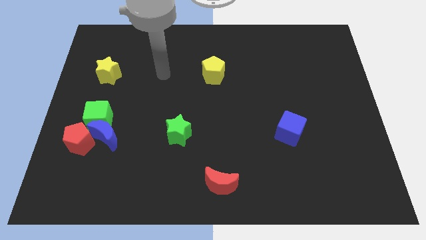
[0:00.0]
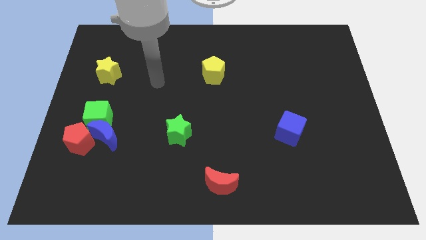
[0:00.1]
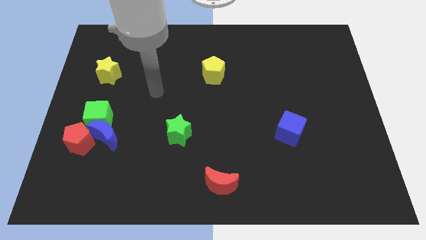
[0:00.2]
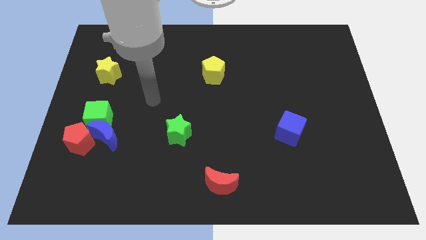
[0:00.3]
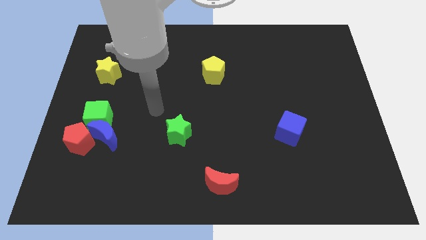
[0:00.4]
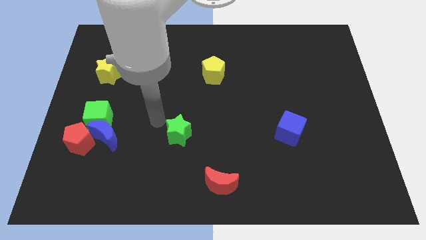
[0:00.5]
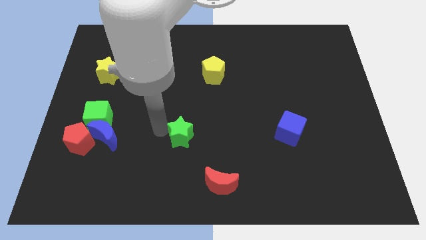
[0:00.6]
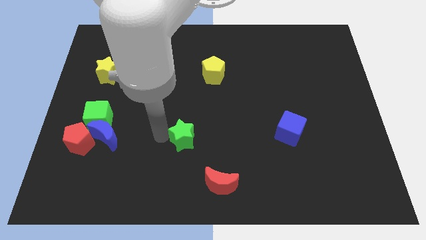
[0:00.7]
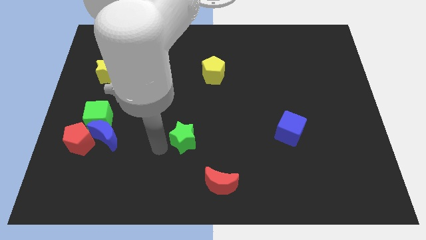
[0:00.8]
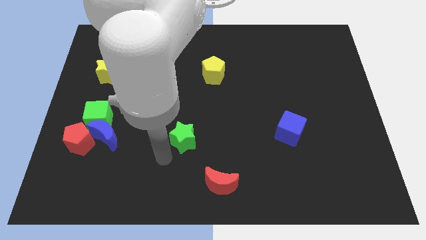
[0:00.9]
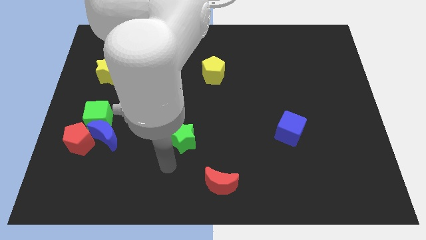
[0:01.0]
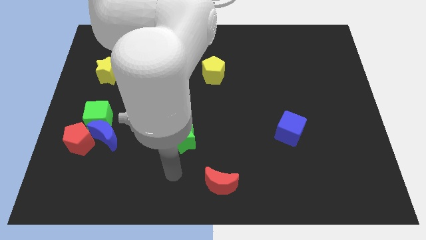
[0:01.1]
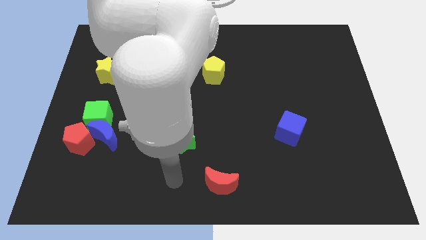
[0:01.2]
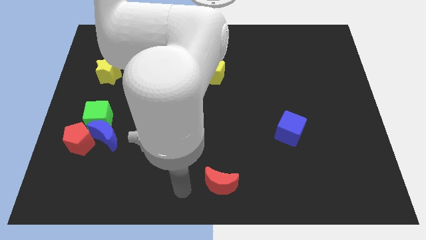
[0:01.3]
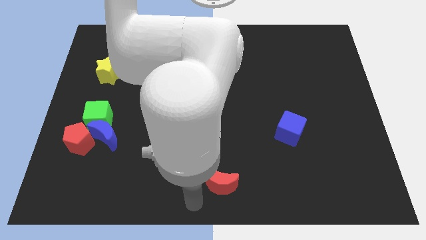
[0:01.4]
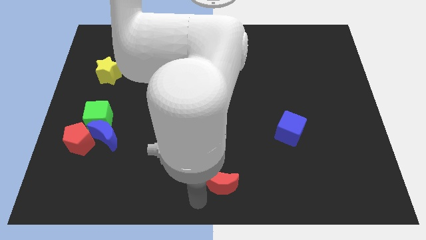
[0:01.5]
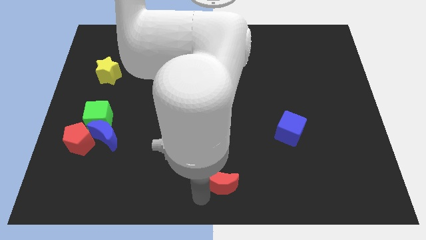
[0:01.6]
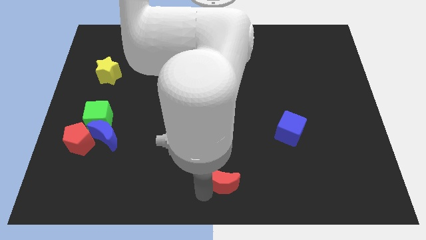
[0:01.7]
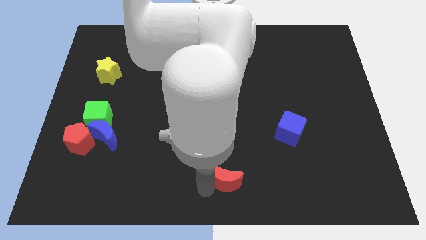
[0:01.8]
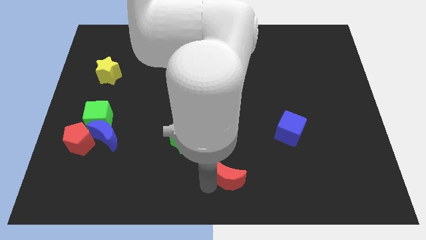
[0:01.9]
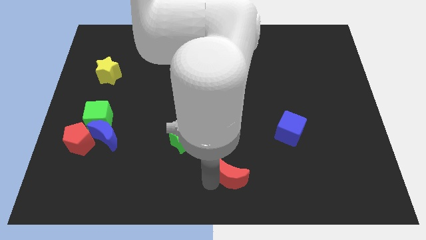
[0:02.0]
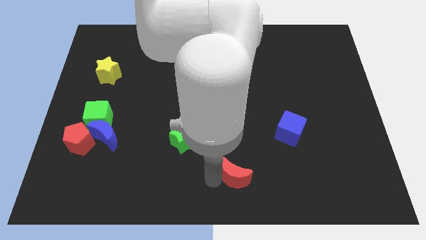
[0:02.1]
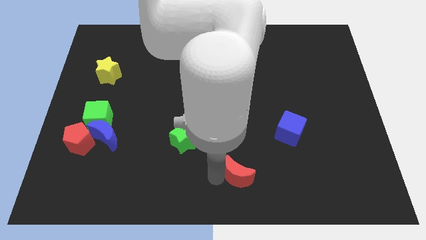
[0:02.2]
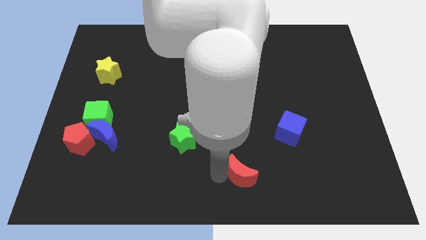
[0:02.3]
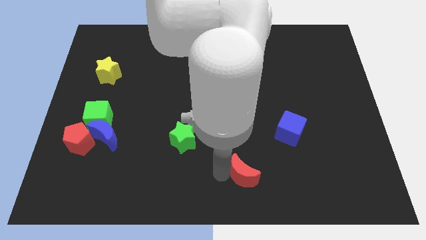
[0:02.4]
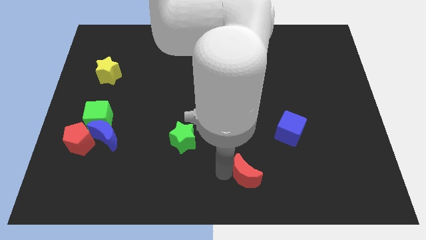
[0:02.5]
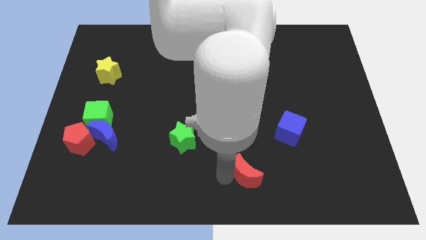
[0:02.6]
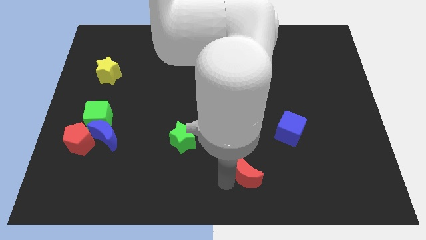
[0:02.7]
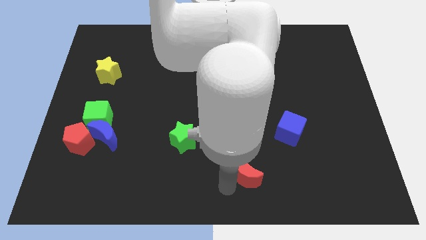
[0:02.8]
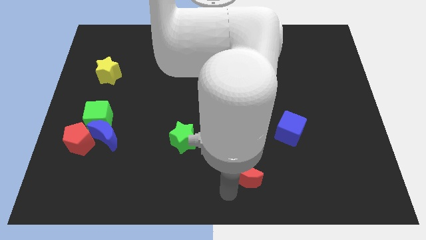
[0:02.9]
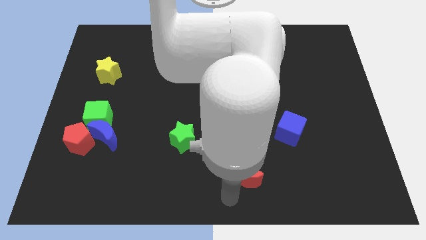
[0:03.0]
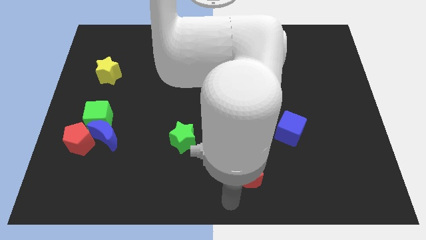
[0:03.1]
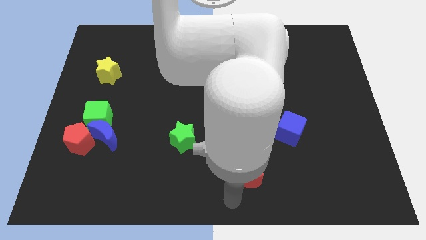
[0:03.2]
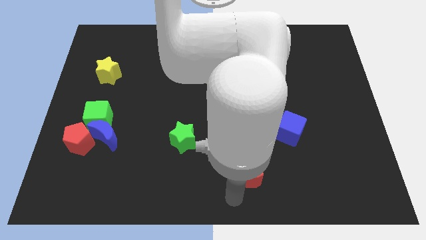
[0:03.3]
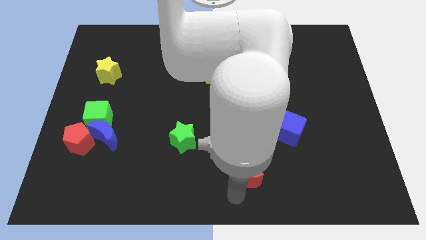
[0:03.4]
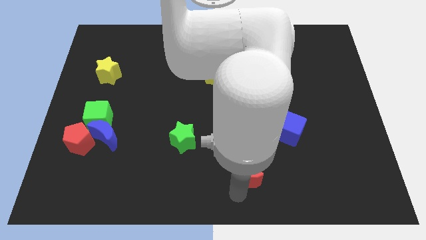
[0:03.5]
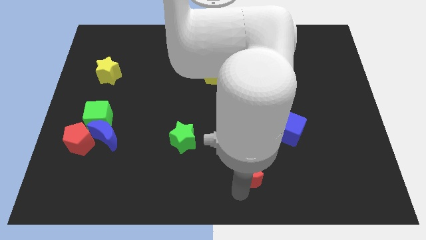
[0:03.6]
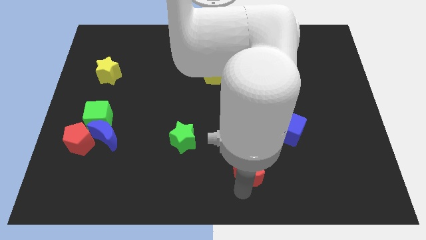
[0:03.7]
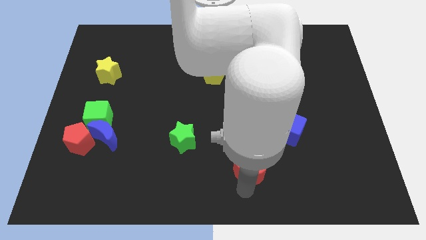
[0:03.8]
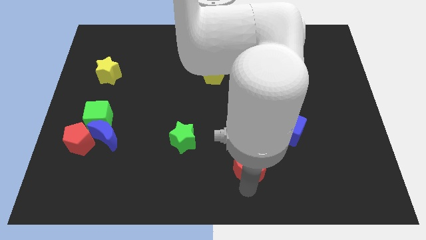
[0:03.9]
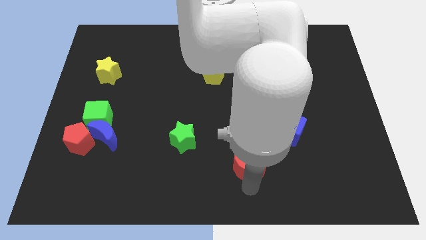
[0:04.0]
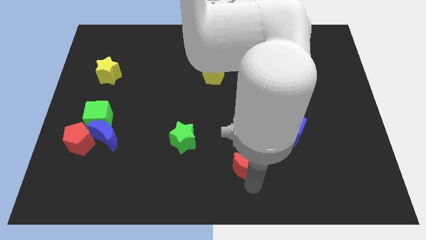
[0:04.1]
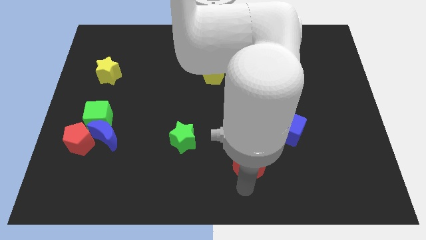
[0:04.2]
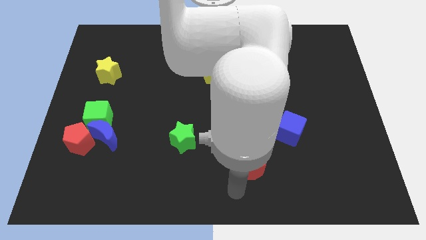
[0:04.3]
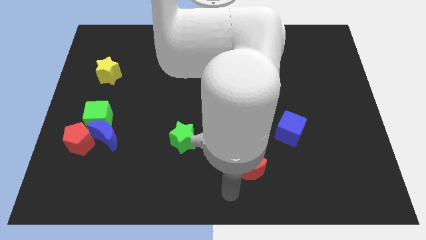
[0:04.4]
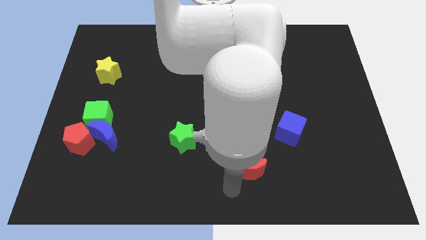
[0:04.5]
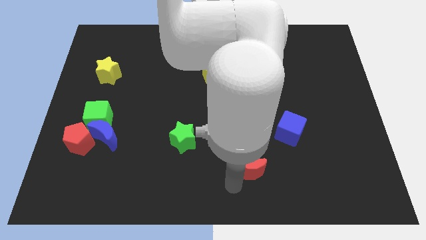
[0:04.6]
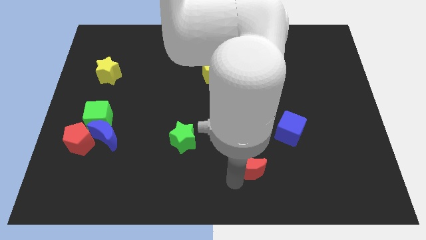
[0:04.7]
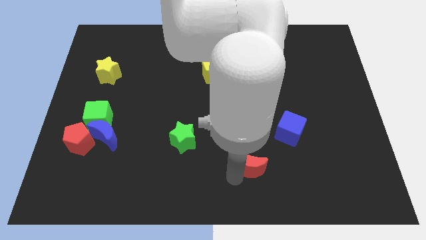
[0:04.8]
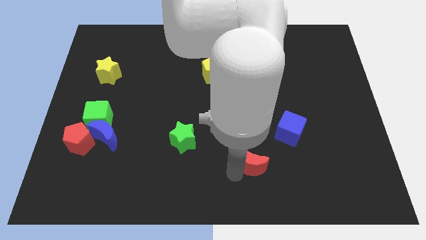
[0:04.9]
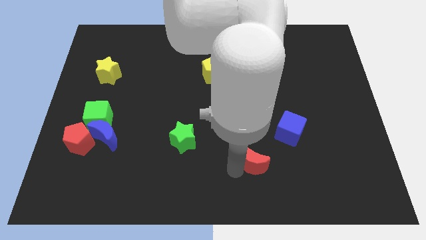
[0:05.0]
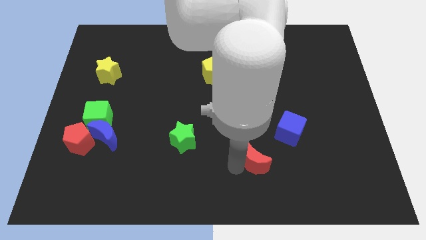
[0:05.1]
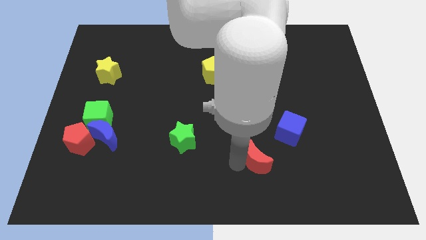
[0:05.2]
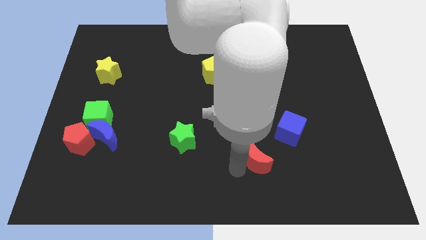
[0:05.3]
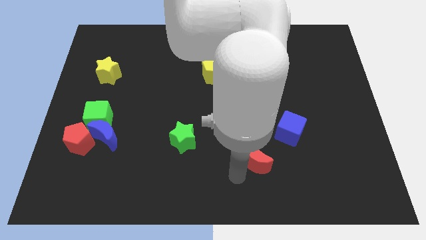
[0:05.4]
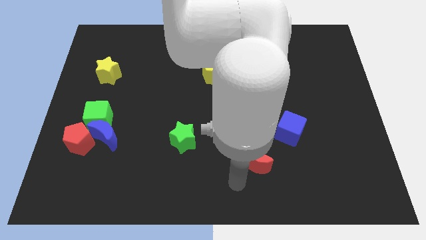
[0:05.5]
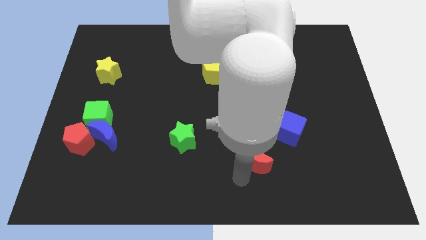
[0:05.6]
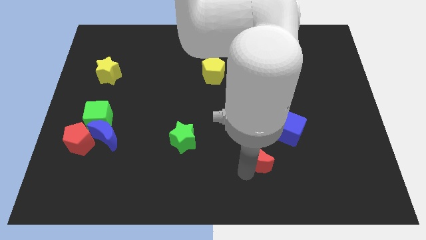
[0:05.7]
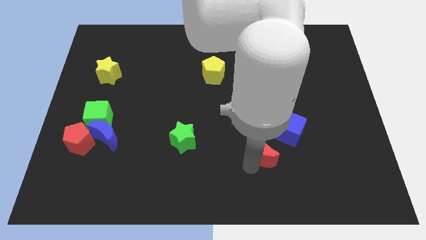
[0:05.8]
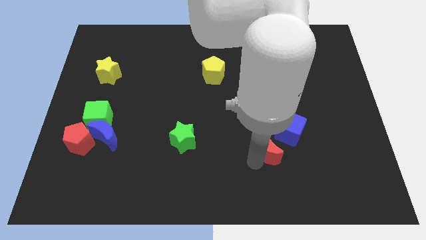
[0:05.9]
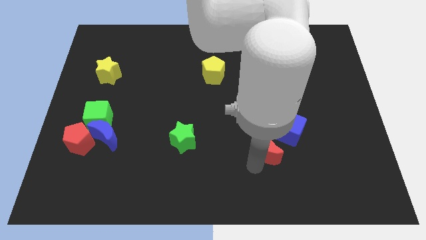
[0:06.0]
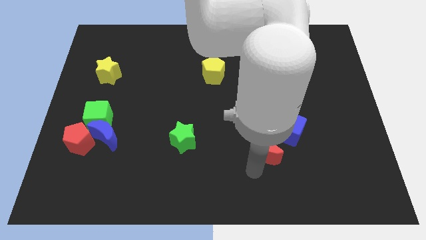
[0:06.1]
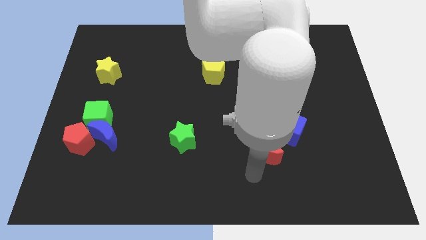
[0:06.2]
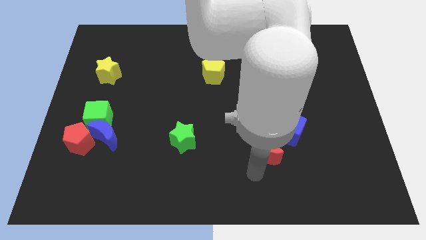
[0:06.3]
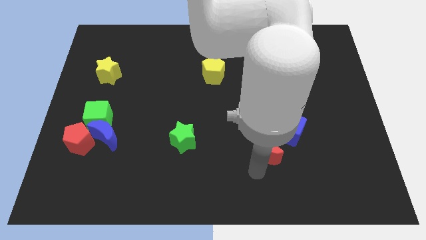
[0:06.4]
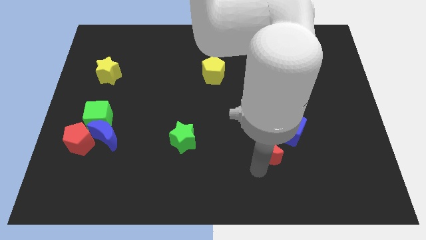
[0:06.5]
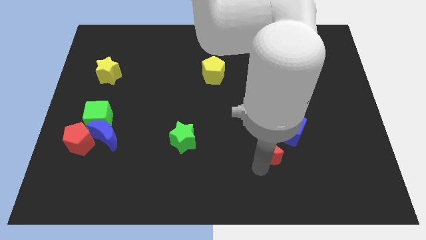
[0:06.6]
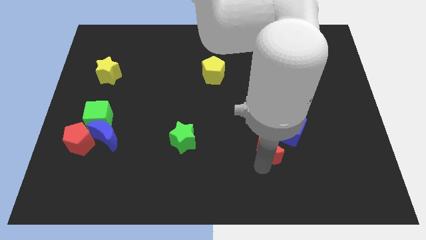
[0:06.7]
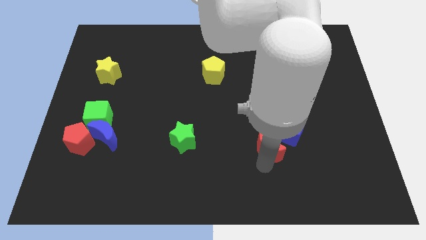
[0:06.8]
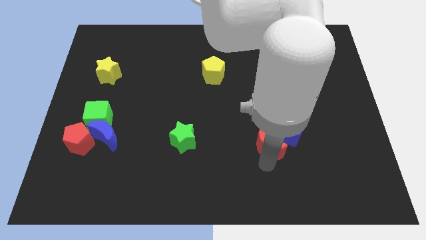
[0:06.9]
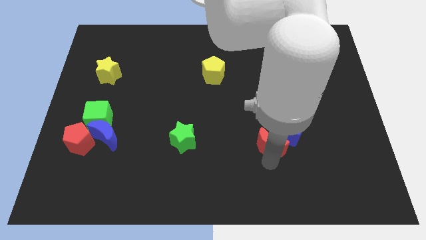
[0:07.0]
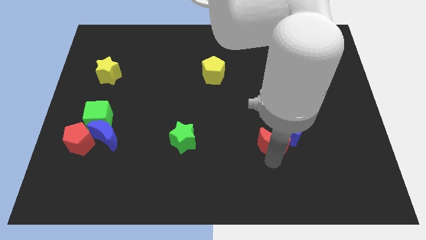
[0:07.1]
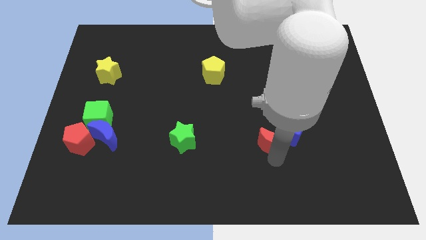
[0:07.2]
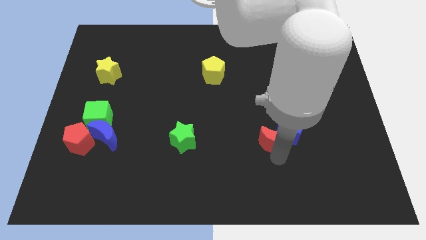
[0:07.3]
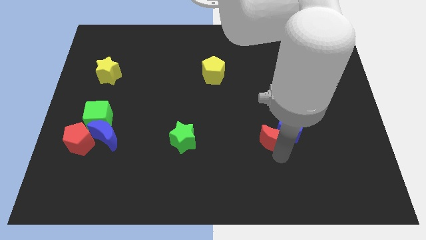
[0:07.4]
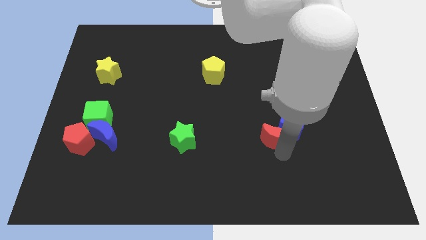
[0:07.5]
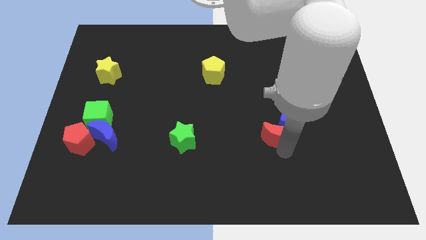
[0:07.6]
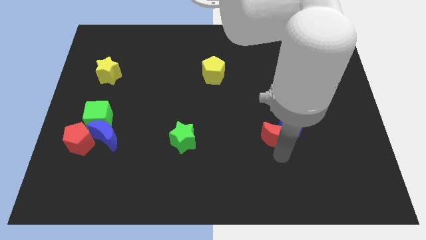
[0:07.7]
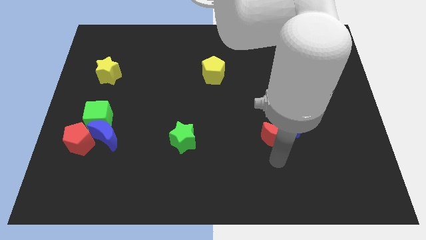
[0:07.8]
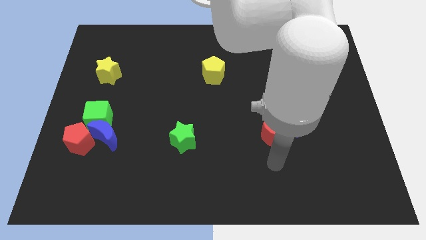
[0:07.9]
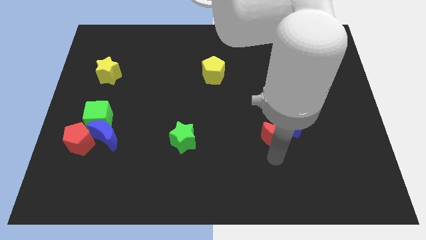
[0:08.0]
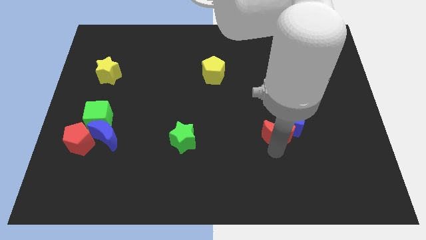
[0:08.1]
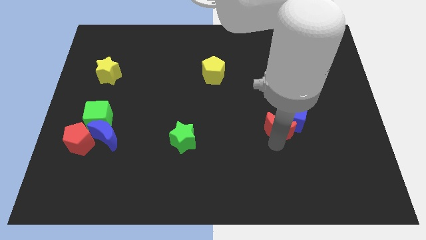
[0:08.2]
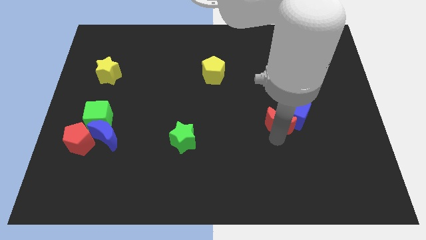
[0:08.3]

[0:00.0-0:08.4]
slide the red moon up and right
